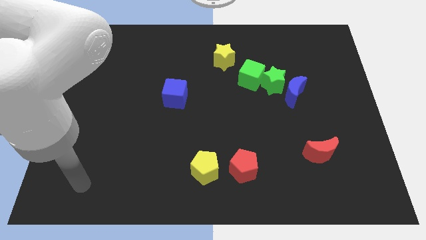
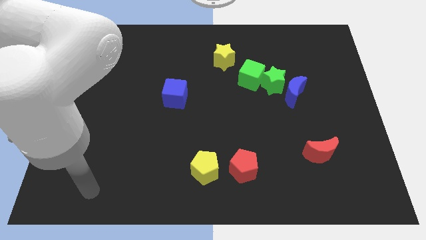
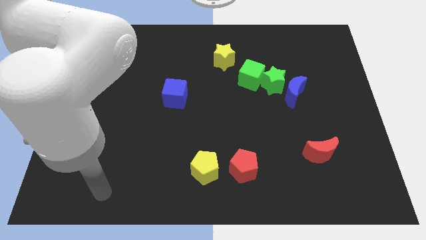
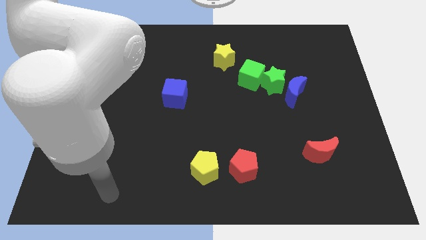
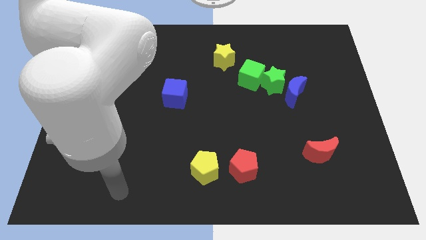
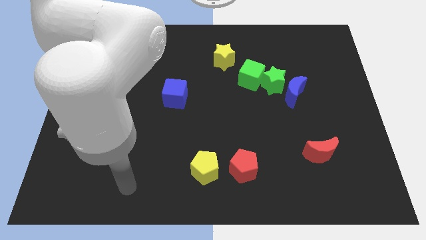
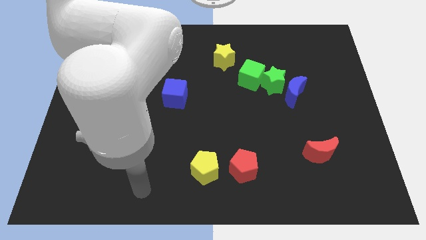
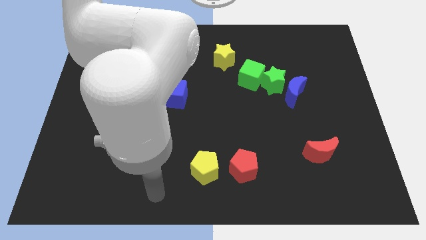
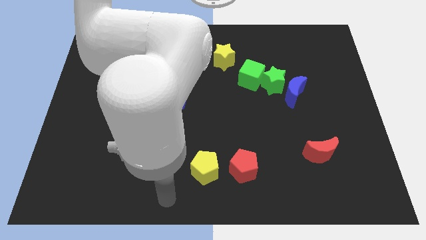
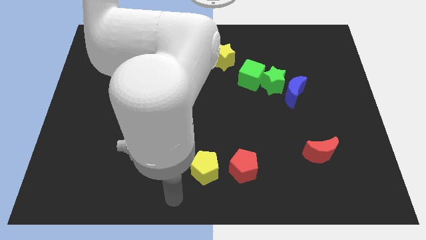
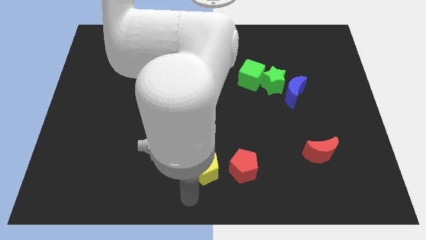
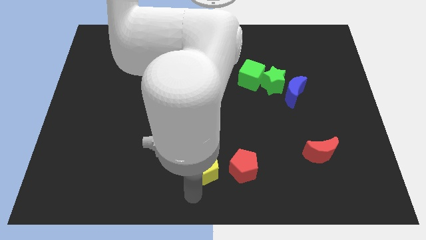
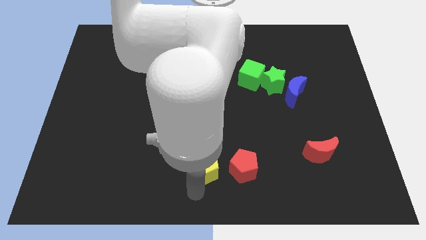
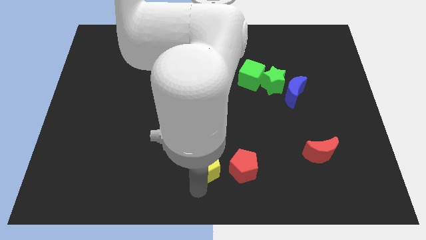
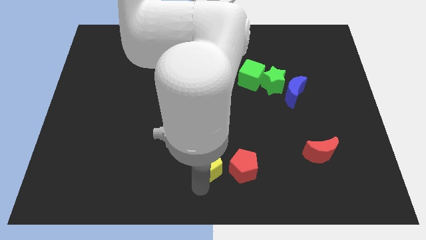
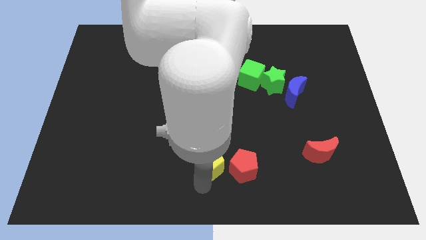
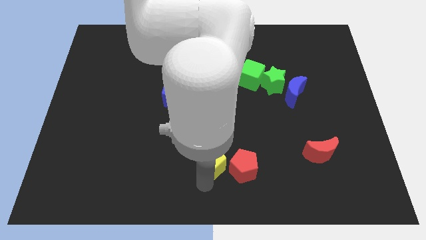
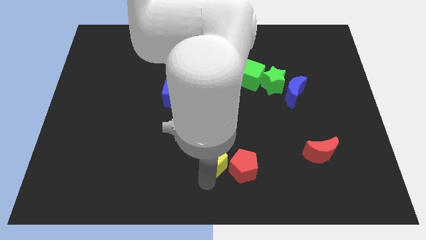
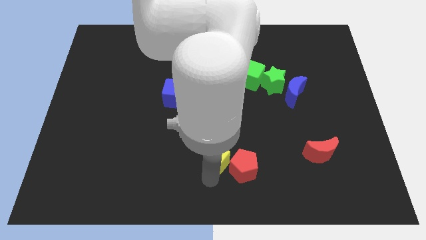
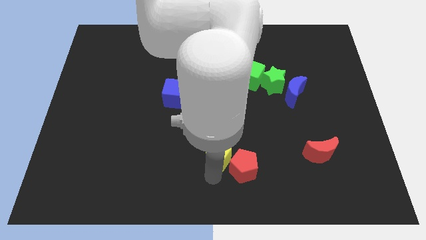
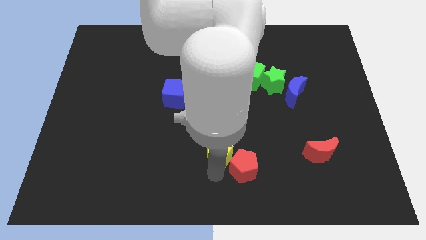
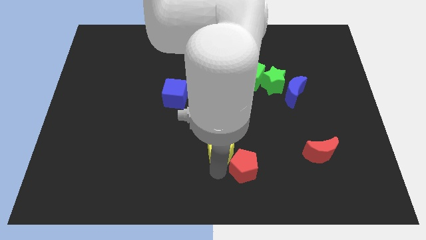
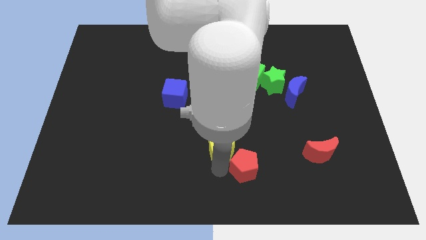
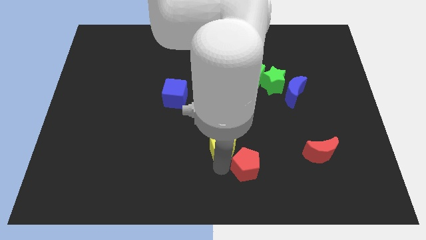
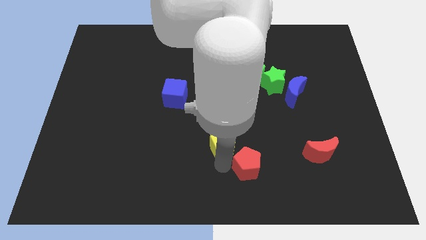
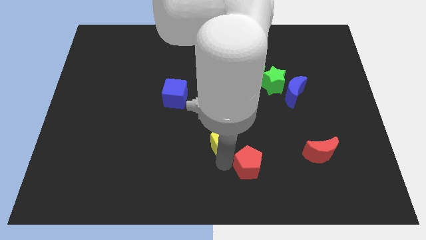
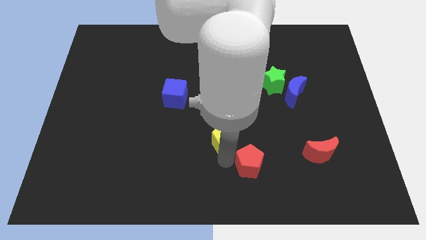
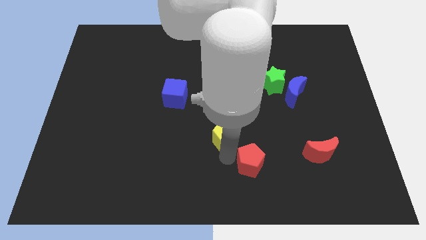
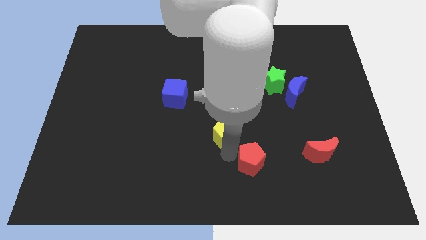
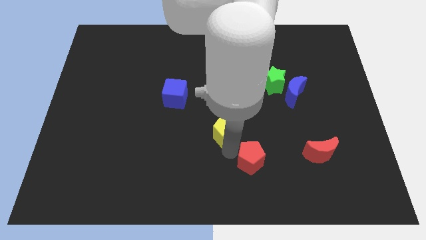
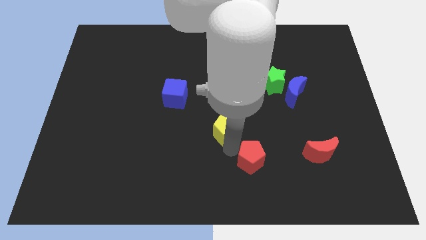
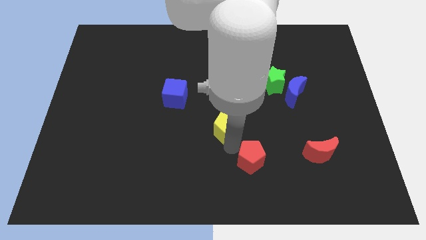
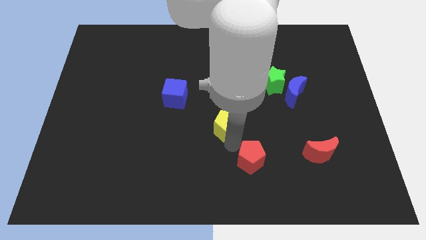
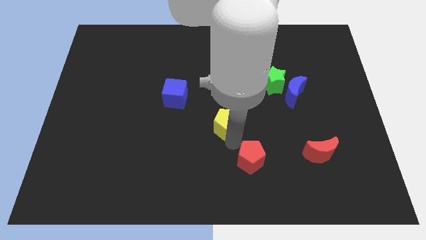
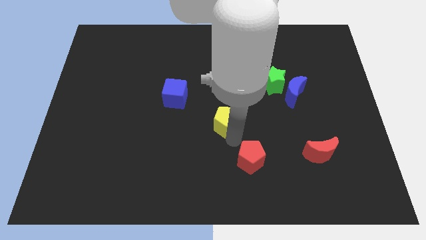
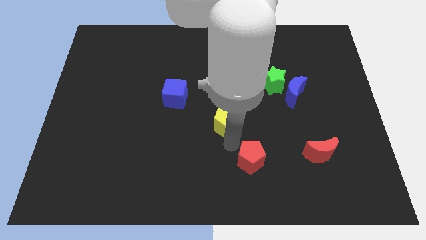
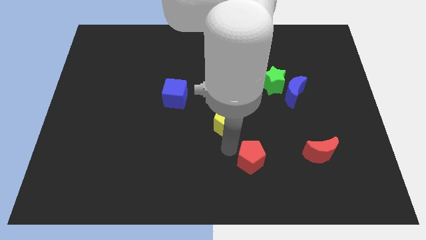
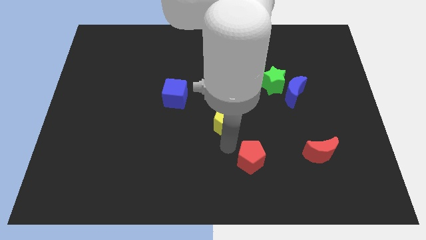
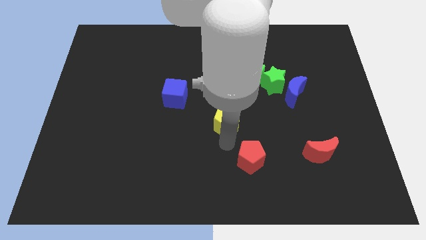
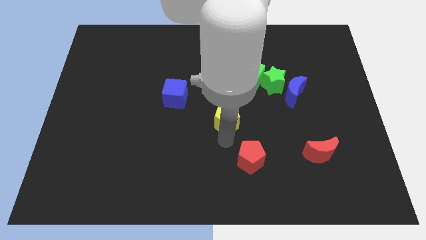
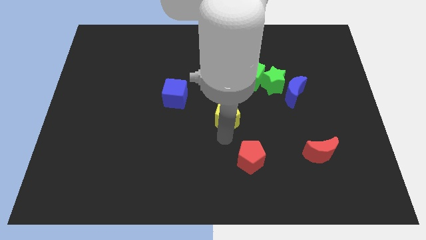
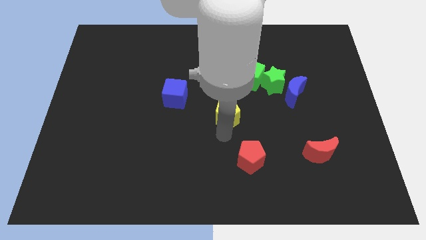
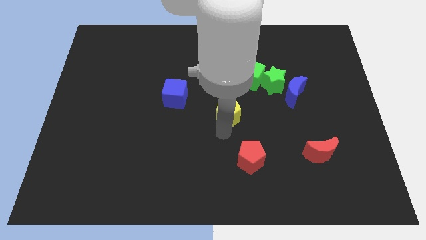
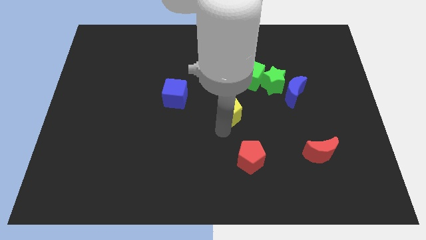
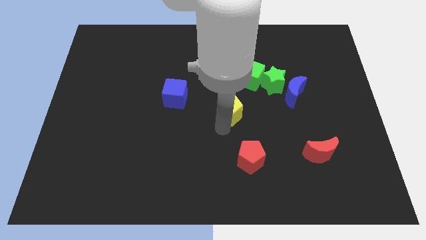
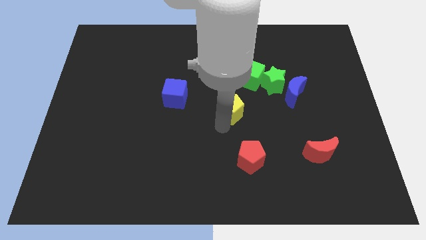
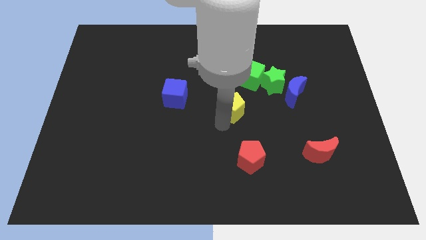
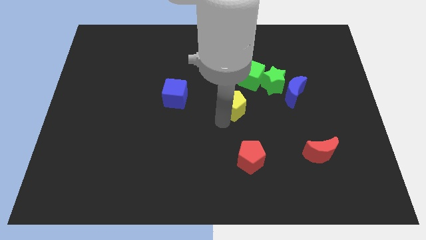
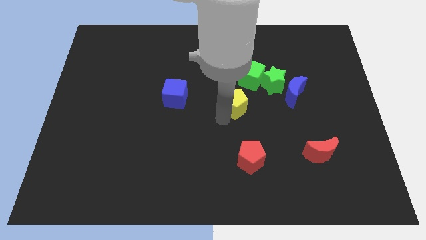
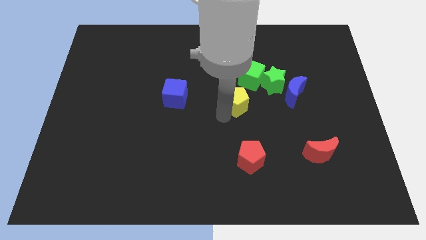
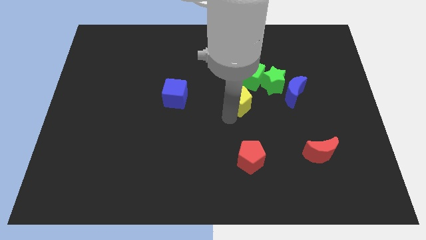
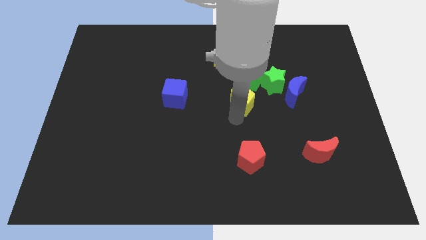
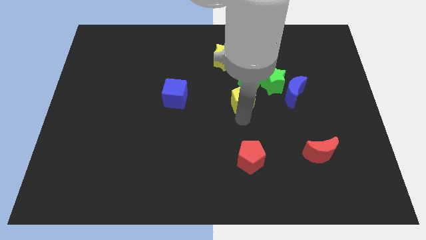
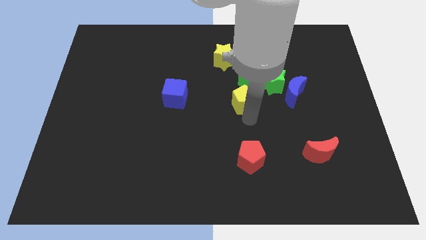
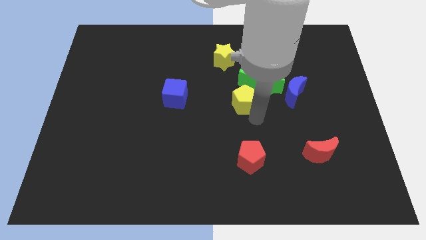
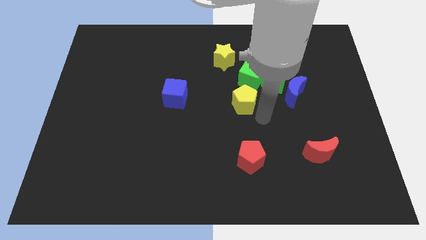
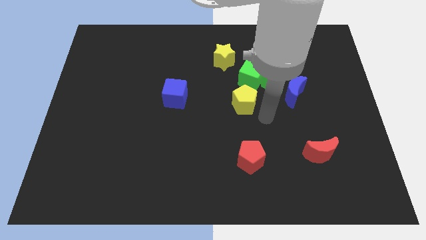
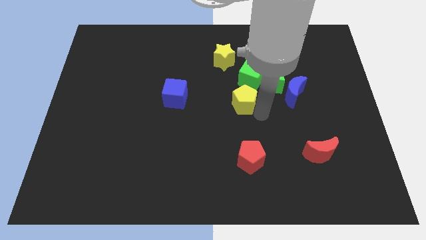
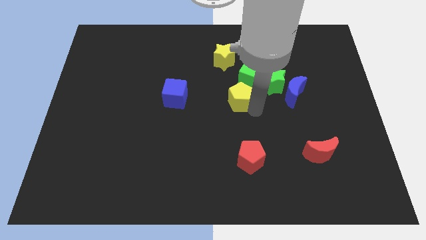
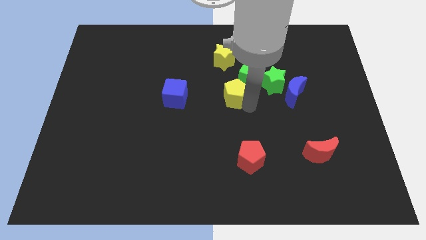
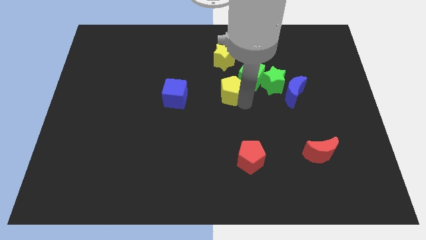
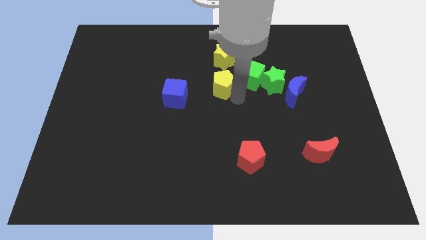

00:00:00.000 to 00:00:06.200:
push the yellow pentagon upwards

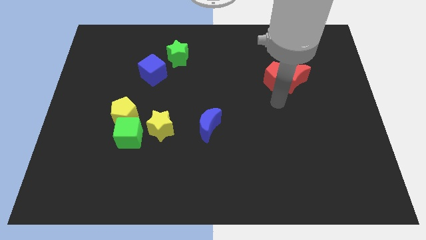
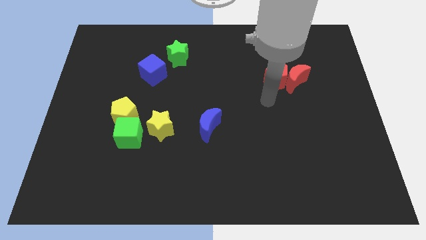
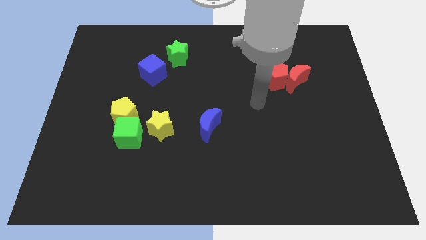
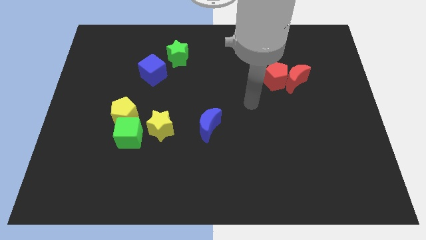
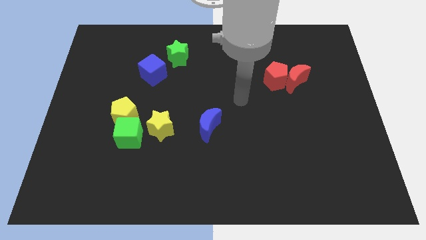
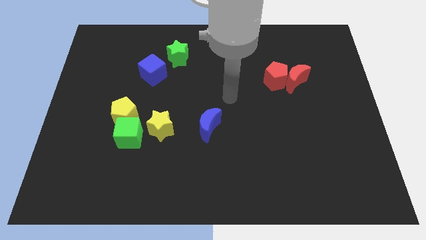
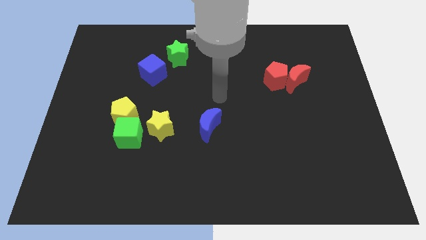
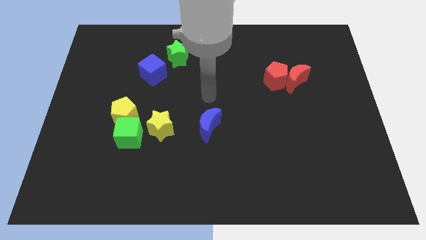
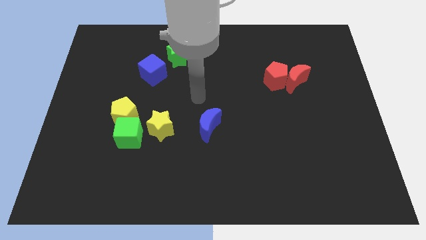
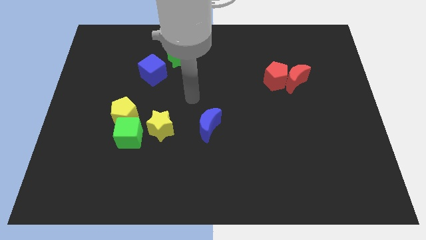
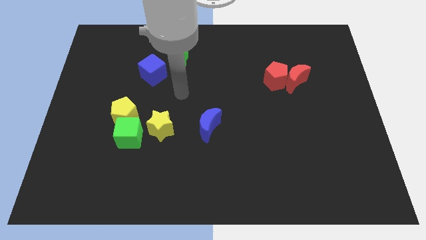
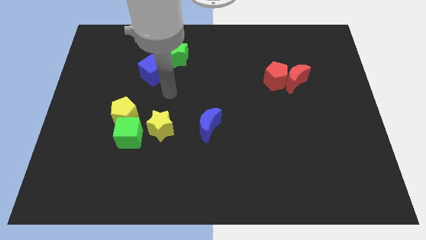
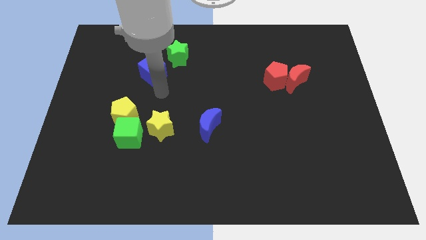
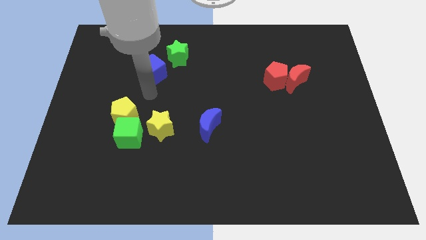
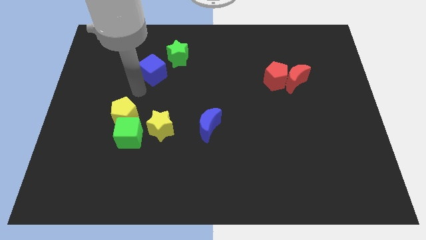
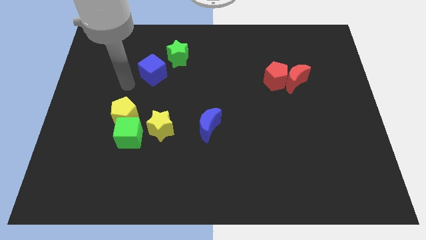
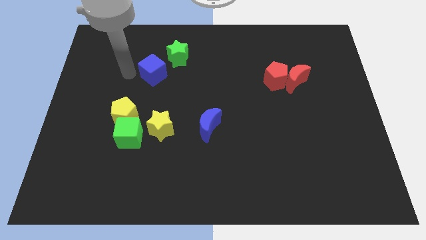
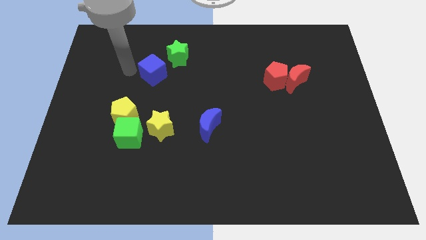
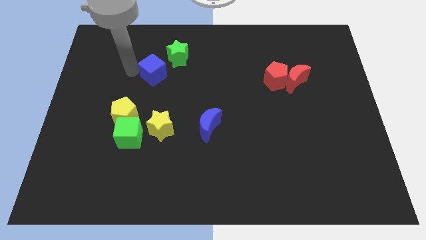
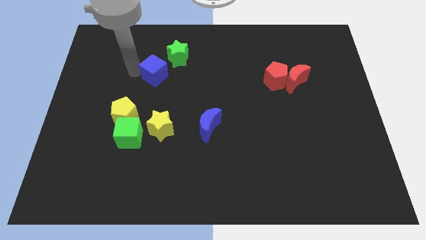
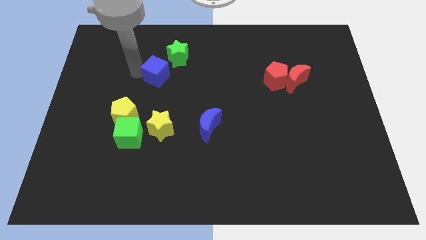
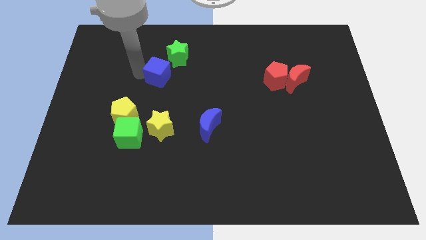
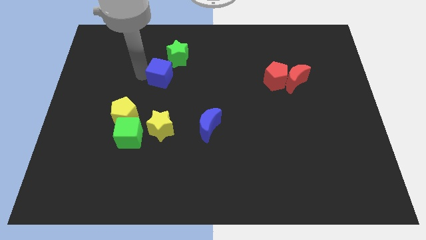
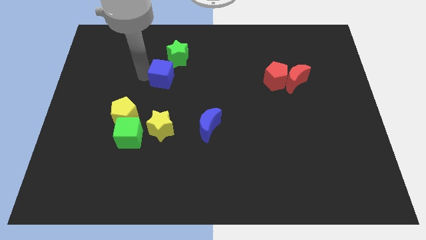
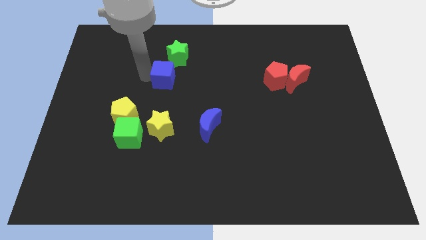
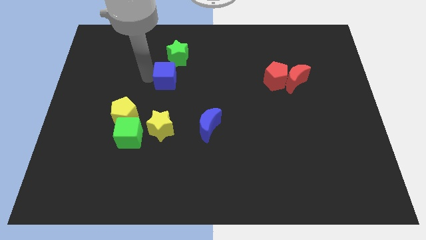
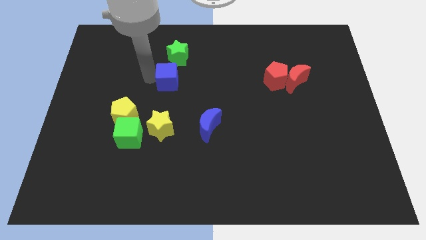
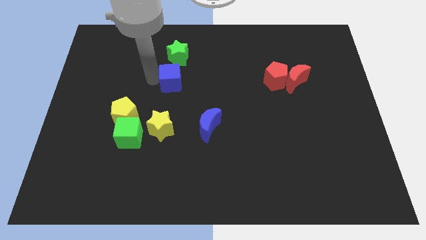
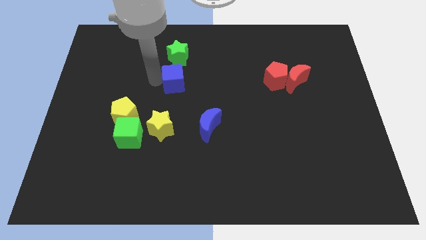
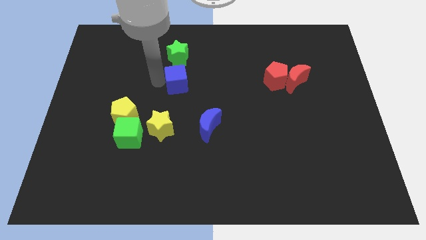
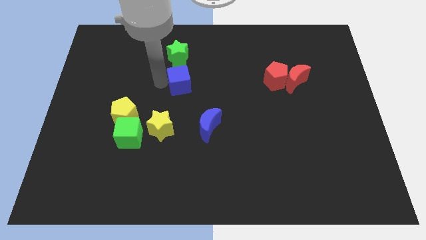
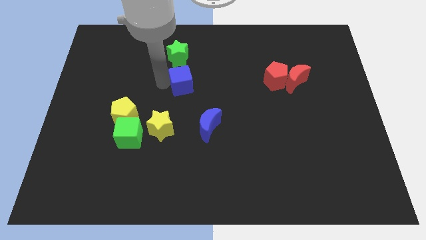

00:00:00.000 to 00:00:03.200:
slightly slide the blue cube right
